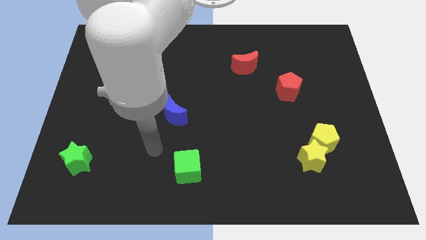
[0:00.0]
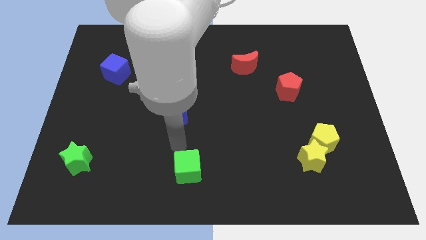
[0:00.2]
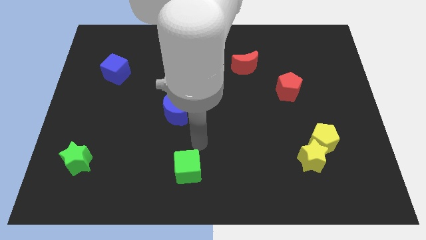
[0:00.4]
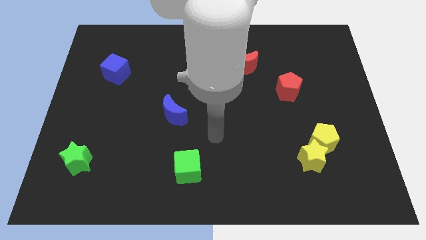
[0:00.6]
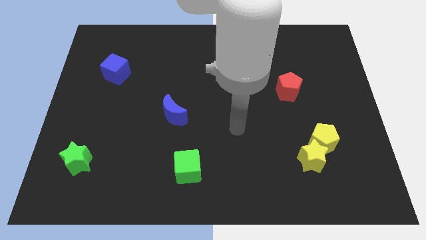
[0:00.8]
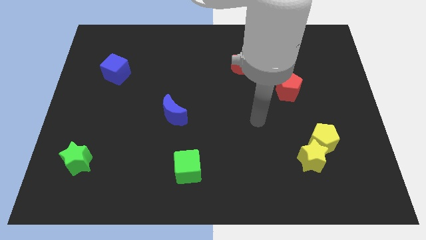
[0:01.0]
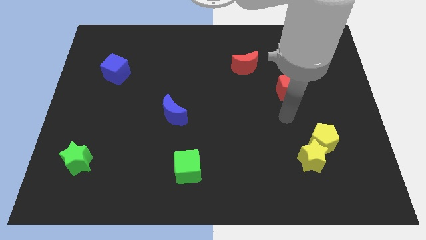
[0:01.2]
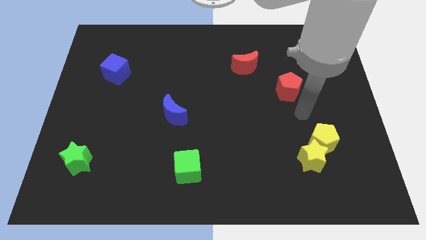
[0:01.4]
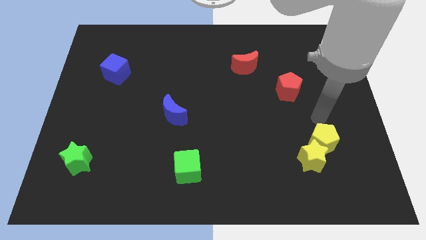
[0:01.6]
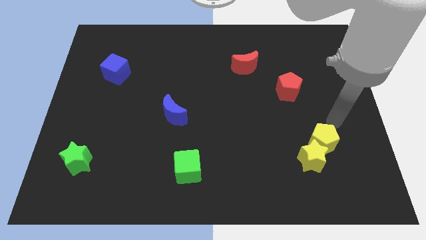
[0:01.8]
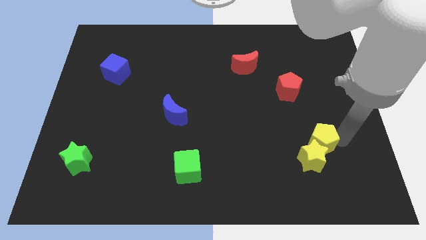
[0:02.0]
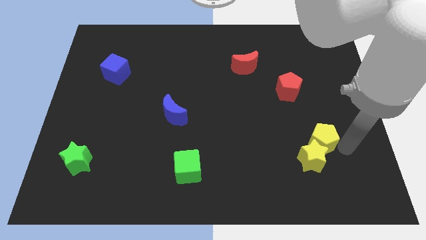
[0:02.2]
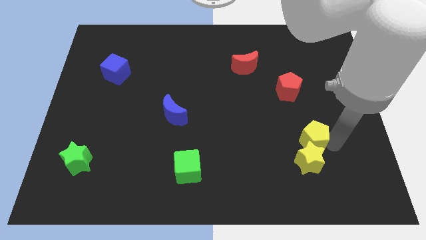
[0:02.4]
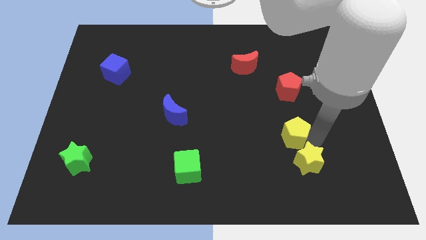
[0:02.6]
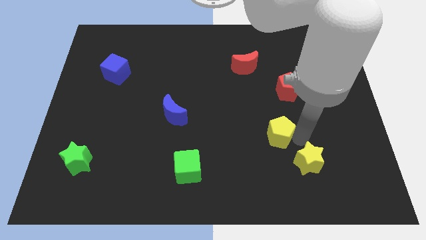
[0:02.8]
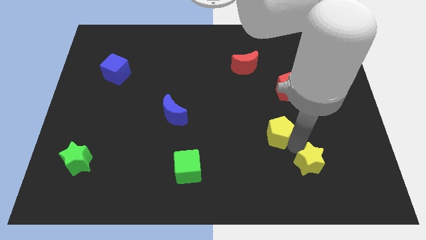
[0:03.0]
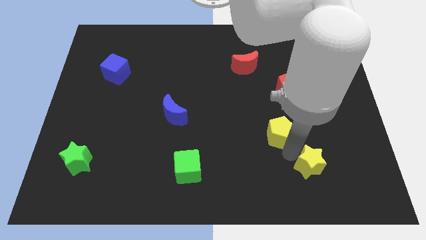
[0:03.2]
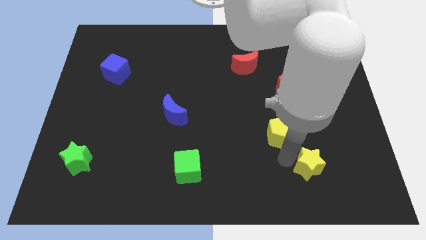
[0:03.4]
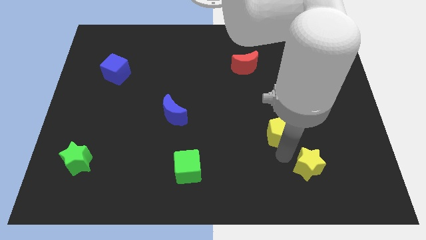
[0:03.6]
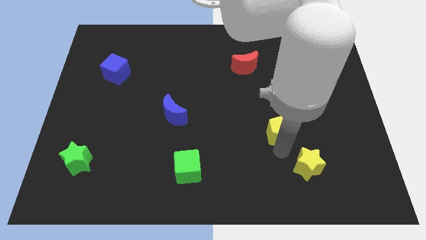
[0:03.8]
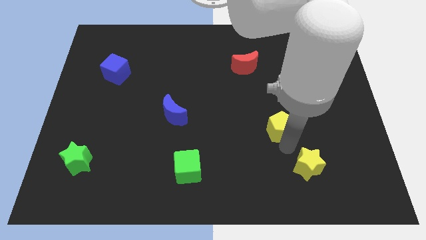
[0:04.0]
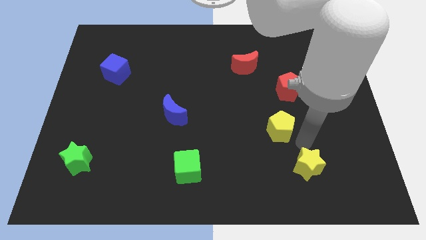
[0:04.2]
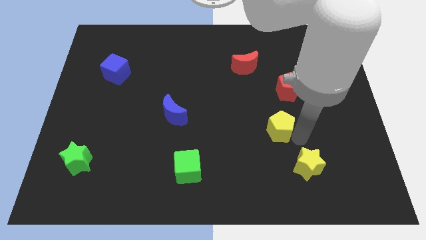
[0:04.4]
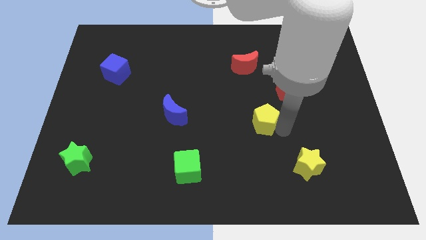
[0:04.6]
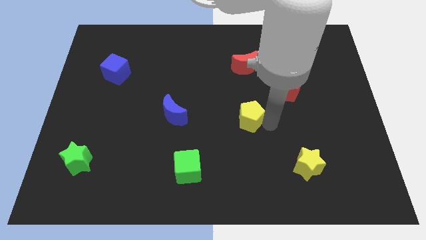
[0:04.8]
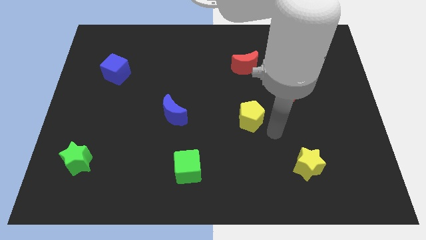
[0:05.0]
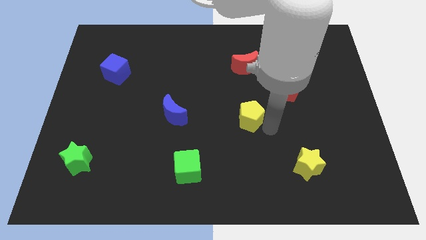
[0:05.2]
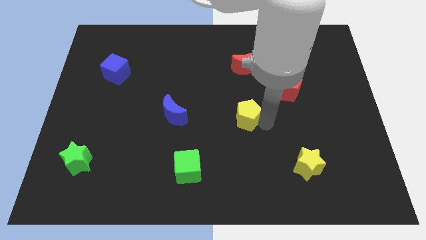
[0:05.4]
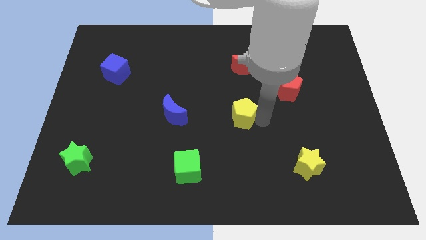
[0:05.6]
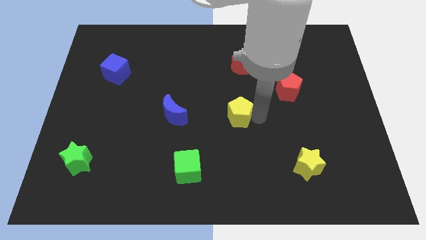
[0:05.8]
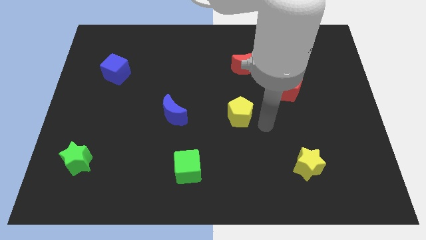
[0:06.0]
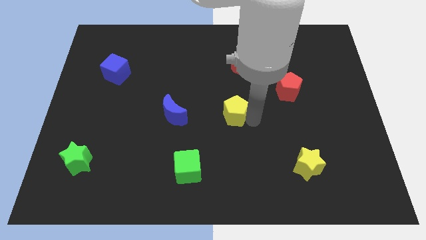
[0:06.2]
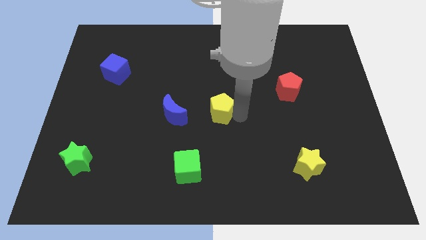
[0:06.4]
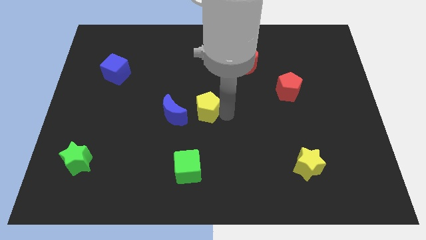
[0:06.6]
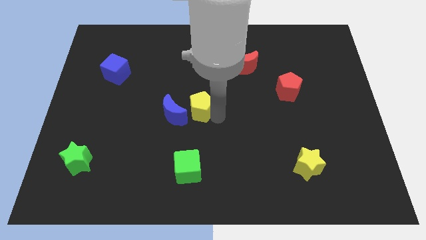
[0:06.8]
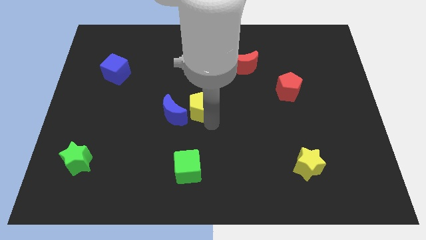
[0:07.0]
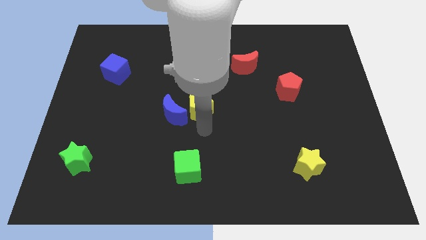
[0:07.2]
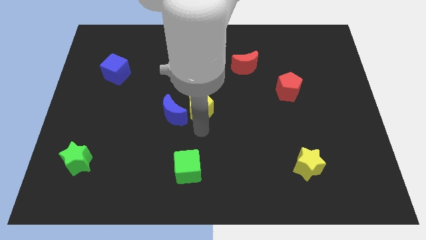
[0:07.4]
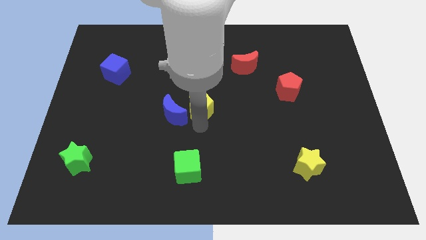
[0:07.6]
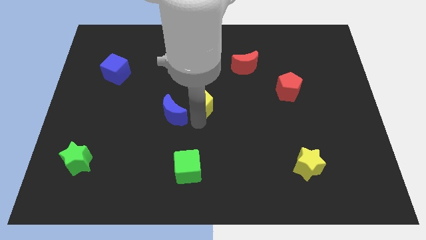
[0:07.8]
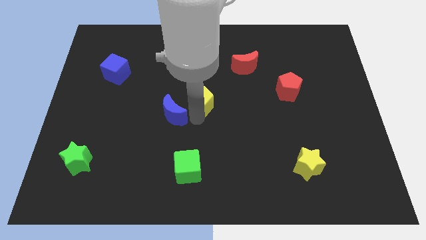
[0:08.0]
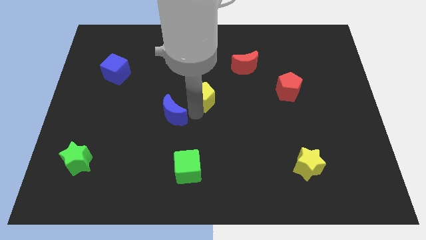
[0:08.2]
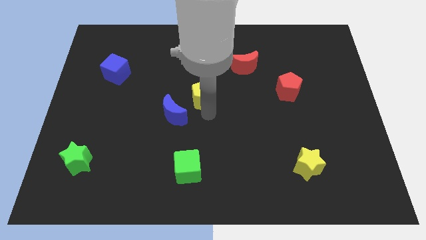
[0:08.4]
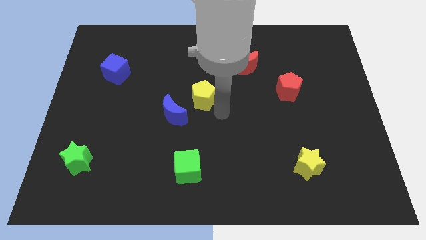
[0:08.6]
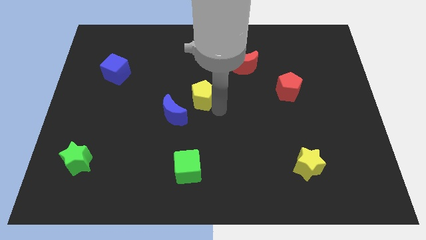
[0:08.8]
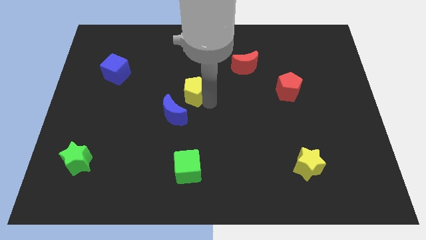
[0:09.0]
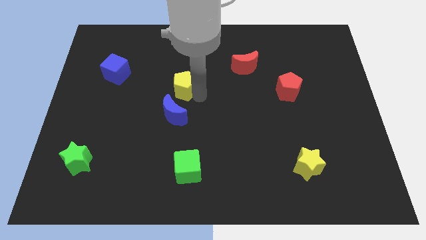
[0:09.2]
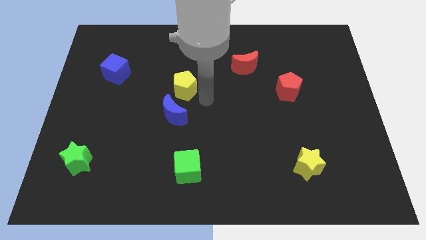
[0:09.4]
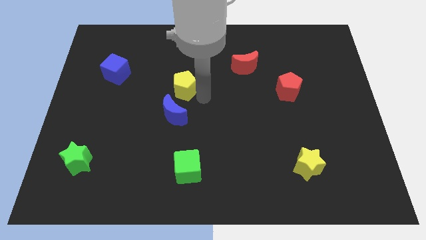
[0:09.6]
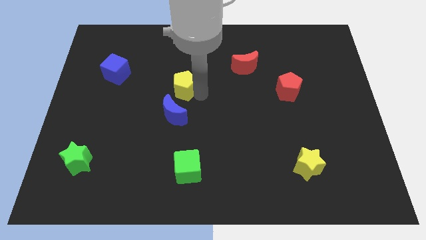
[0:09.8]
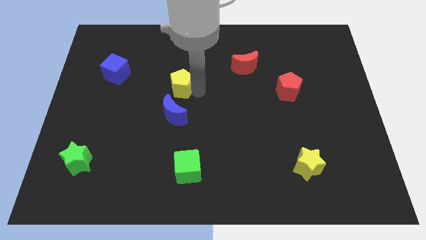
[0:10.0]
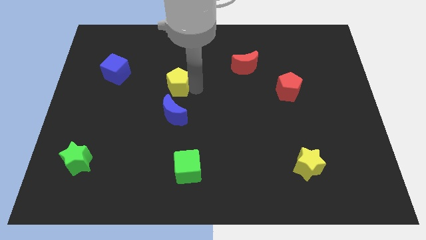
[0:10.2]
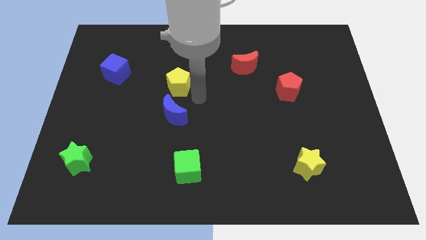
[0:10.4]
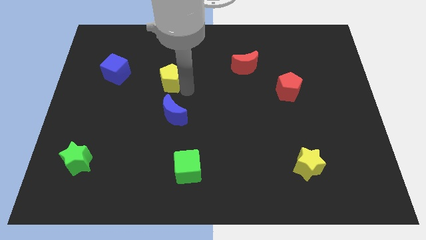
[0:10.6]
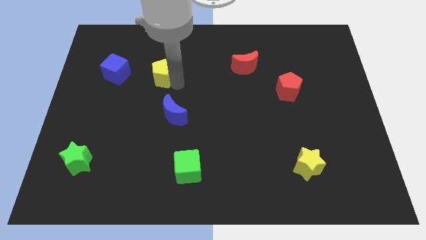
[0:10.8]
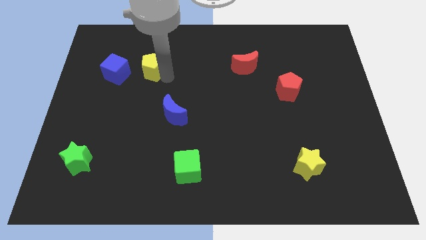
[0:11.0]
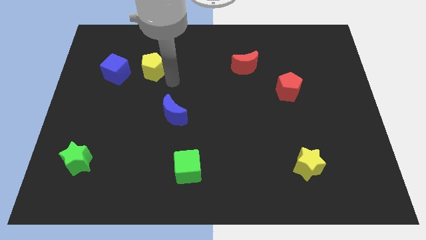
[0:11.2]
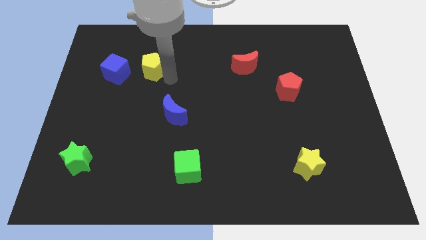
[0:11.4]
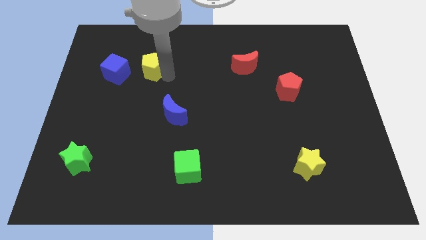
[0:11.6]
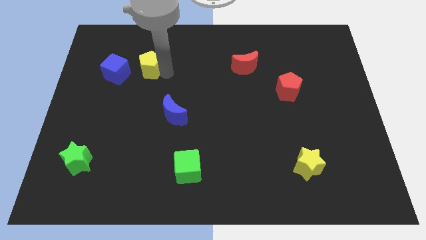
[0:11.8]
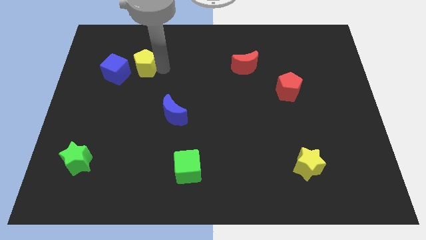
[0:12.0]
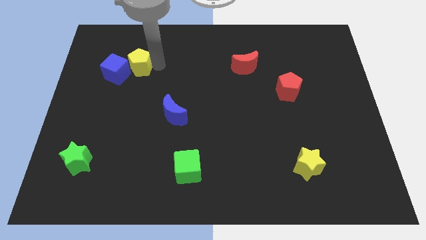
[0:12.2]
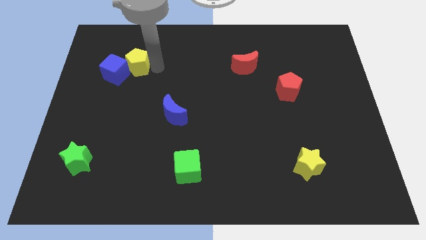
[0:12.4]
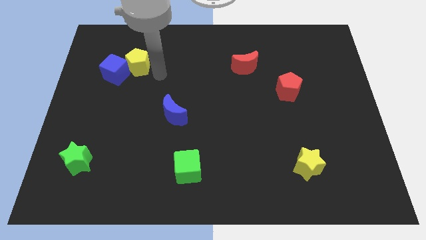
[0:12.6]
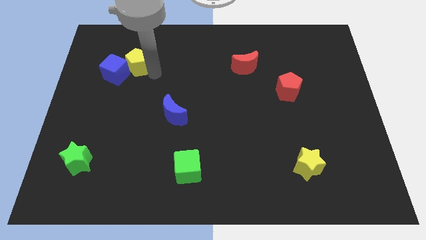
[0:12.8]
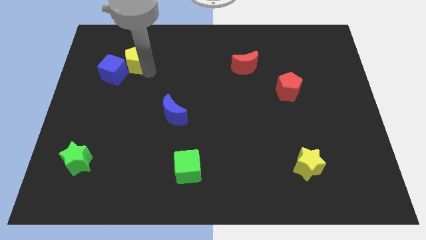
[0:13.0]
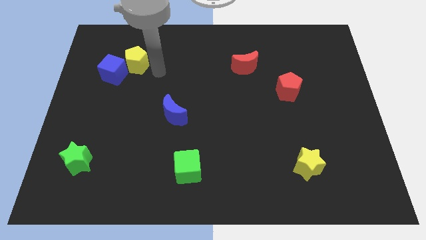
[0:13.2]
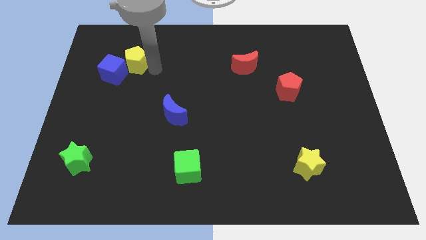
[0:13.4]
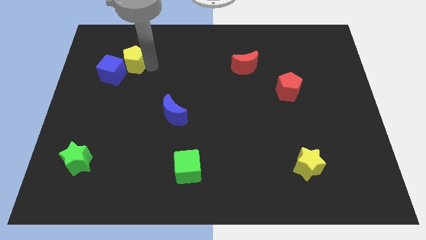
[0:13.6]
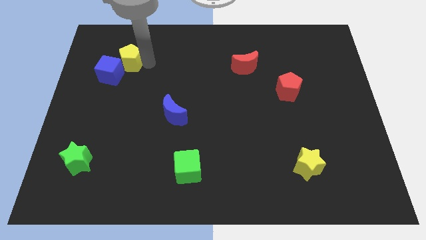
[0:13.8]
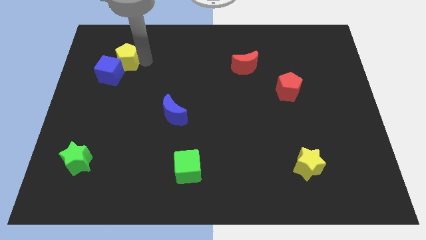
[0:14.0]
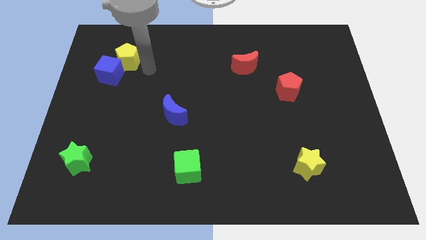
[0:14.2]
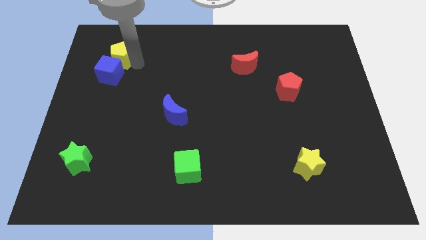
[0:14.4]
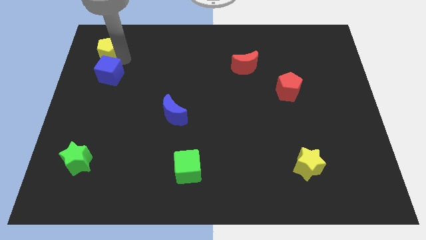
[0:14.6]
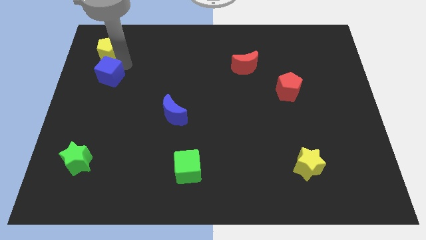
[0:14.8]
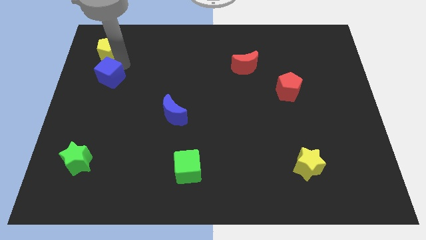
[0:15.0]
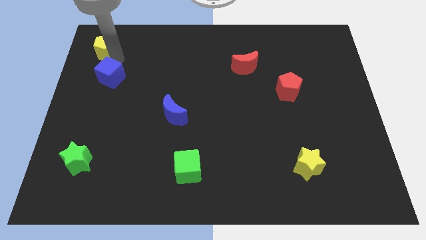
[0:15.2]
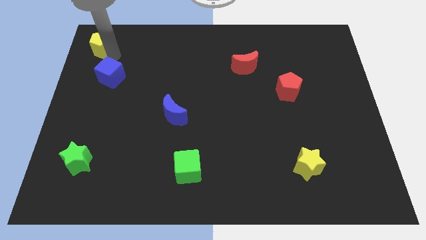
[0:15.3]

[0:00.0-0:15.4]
push the yellow pentagon to the top left corner
